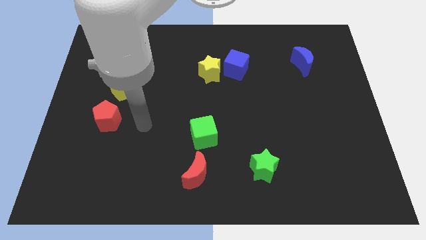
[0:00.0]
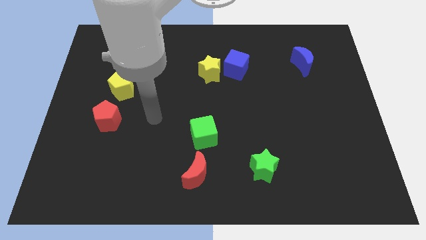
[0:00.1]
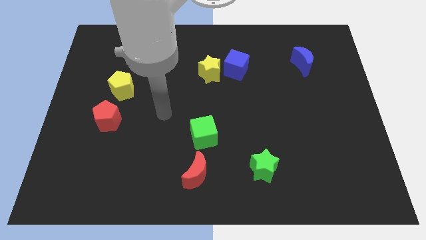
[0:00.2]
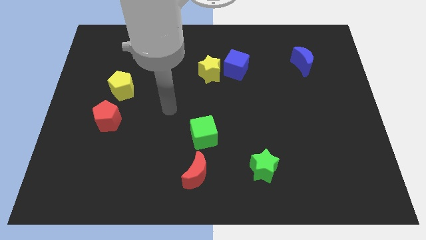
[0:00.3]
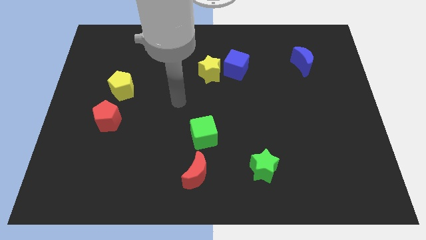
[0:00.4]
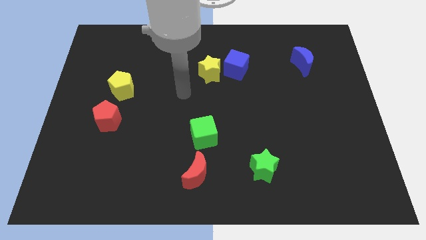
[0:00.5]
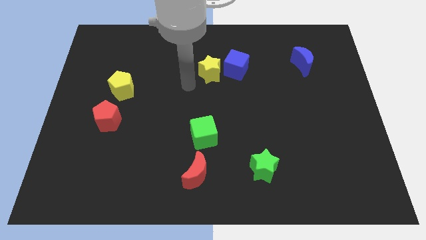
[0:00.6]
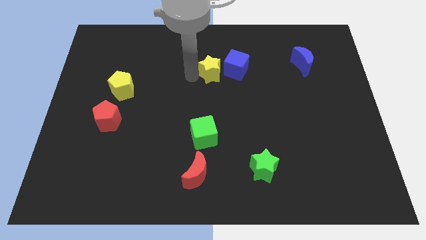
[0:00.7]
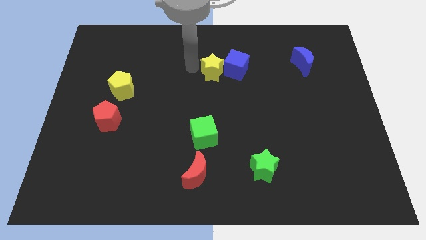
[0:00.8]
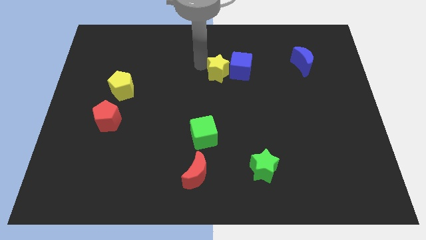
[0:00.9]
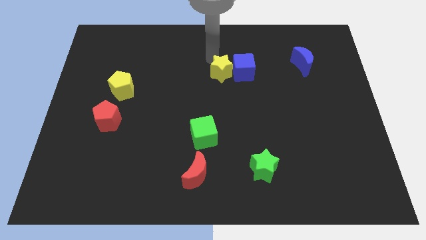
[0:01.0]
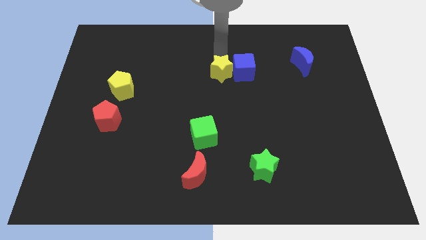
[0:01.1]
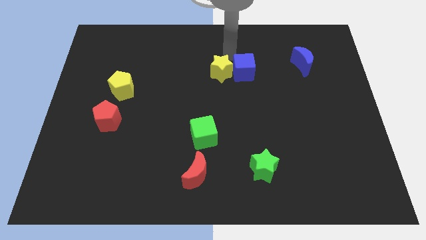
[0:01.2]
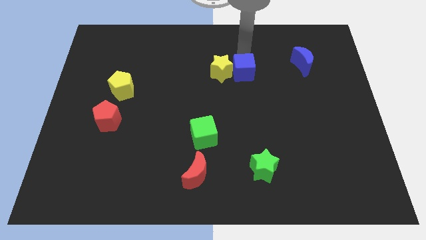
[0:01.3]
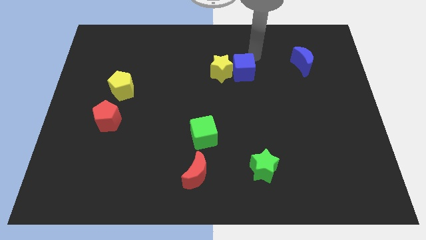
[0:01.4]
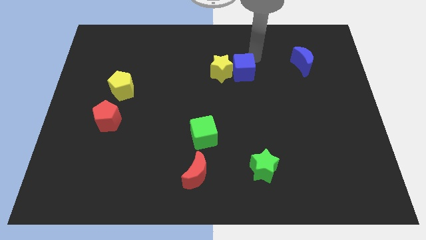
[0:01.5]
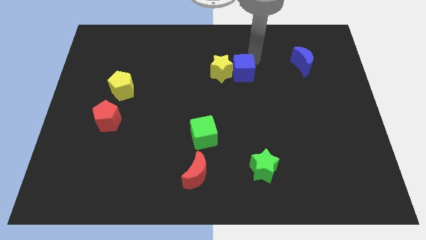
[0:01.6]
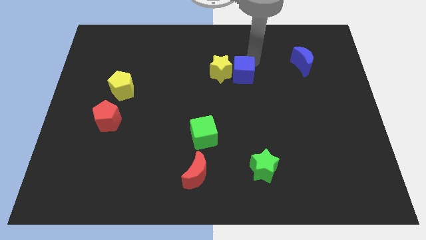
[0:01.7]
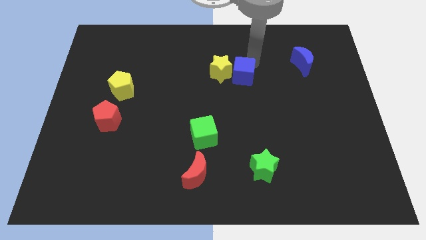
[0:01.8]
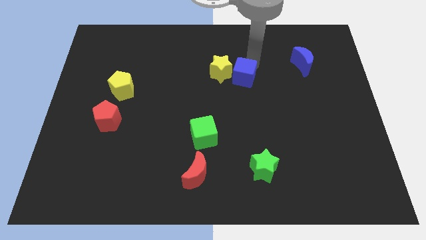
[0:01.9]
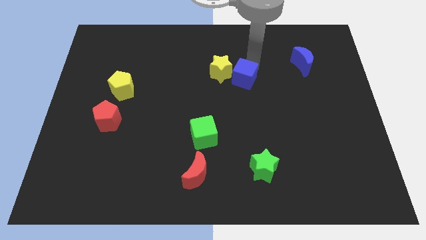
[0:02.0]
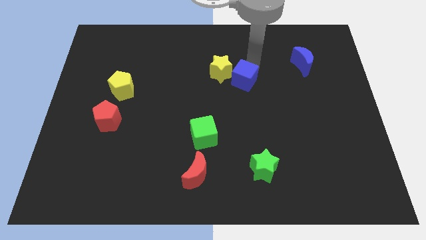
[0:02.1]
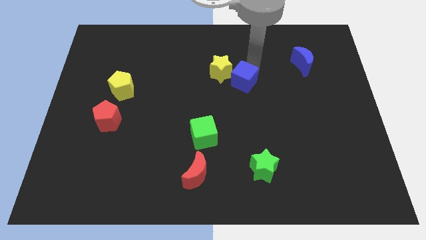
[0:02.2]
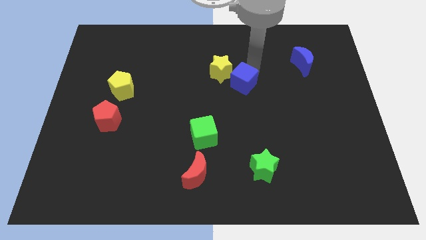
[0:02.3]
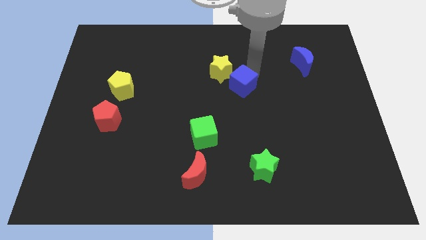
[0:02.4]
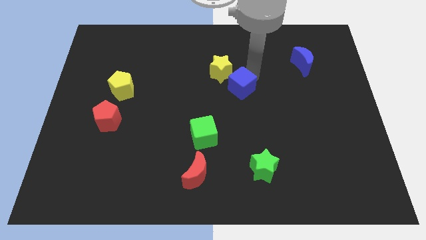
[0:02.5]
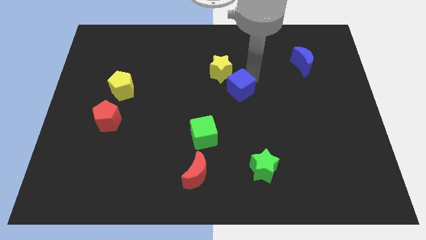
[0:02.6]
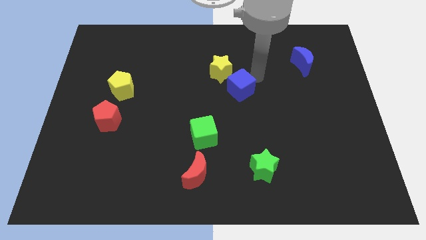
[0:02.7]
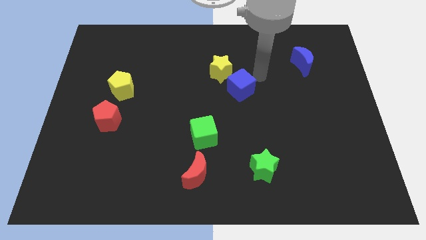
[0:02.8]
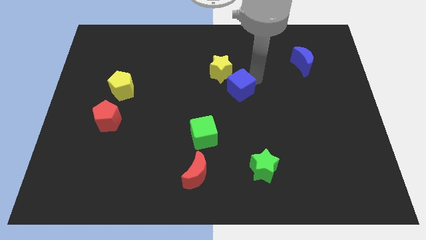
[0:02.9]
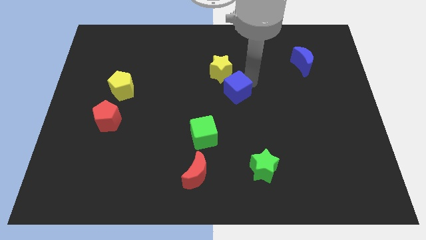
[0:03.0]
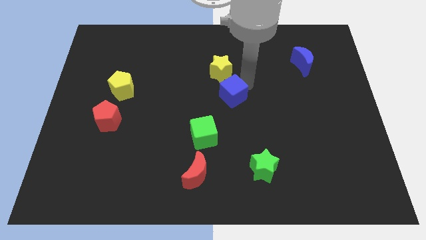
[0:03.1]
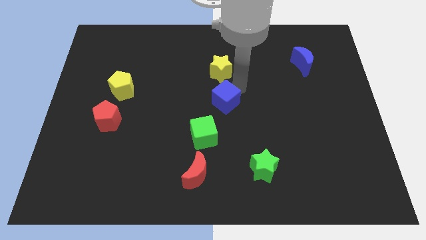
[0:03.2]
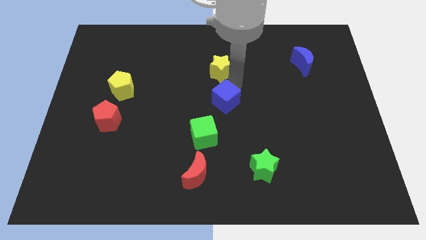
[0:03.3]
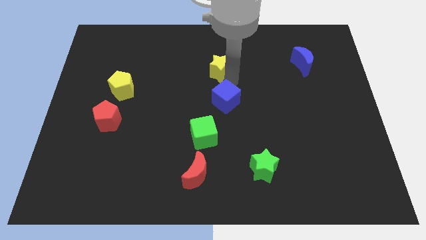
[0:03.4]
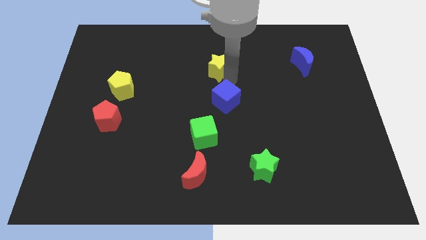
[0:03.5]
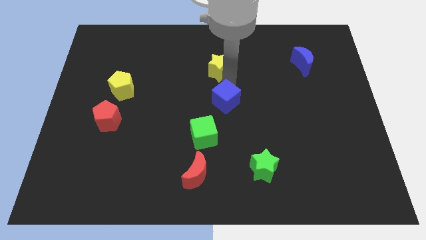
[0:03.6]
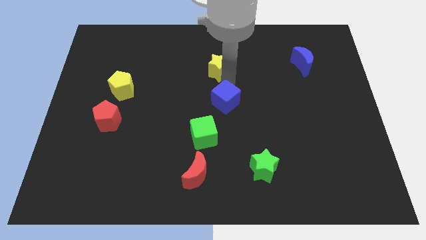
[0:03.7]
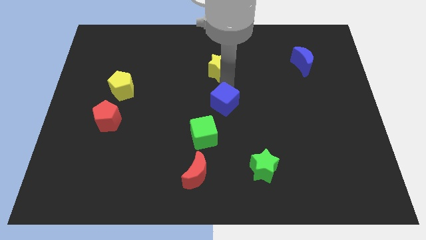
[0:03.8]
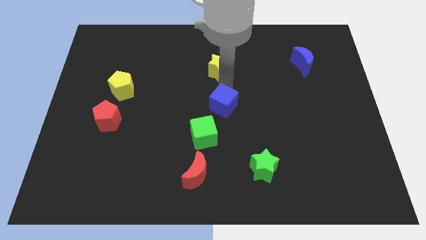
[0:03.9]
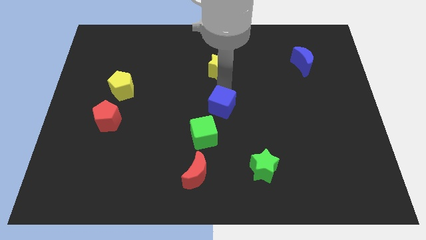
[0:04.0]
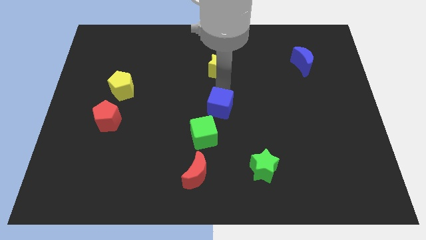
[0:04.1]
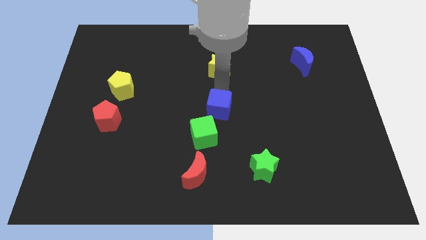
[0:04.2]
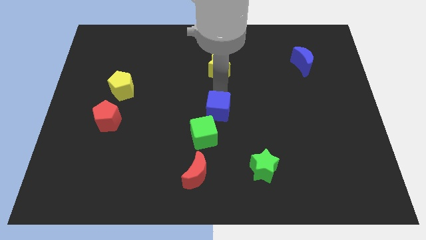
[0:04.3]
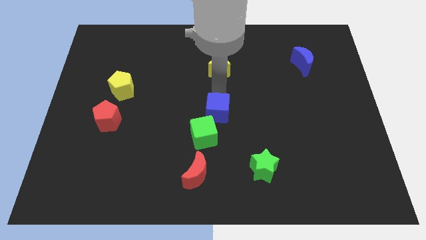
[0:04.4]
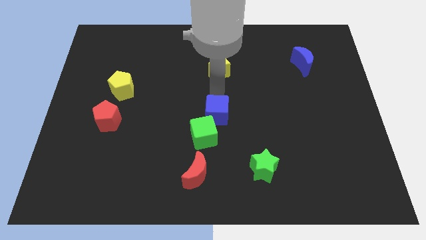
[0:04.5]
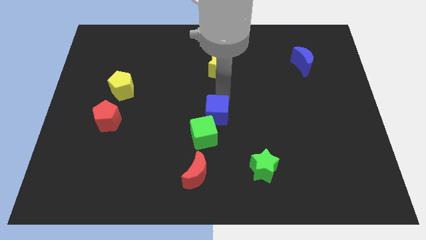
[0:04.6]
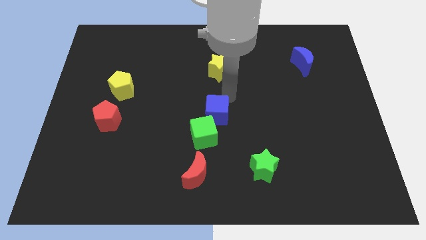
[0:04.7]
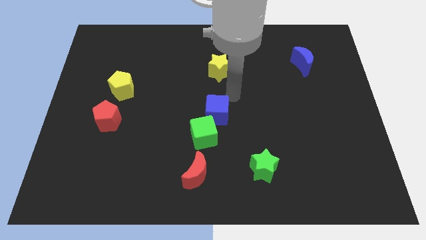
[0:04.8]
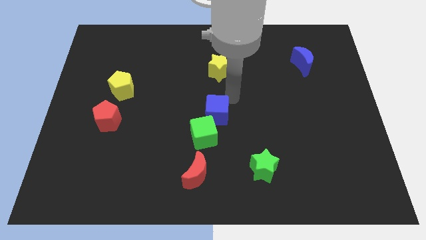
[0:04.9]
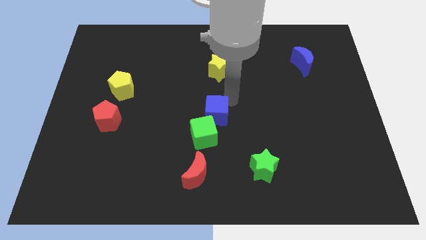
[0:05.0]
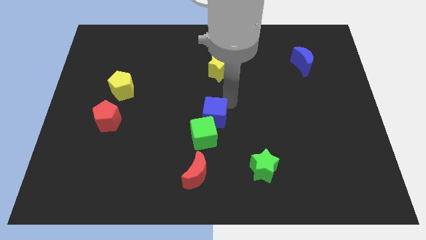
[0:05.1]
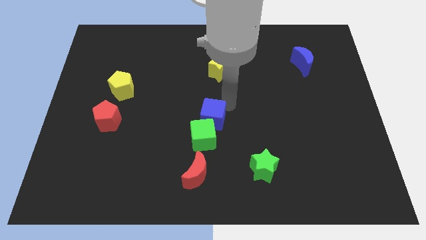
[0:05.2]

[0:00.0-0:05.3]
put the blue cube to the top side of the red moon

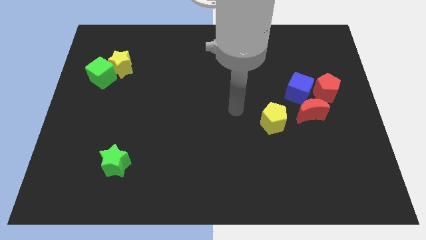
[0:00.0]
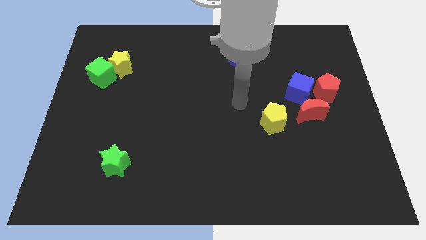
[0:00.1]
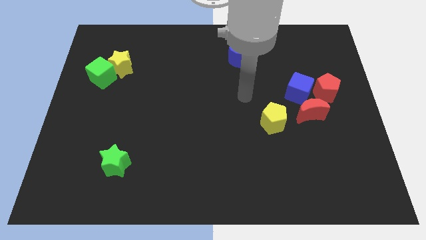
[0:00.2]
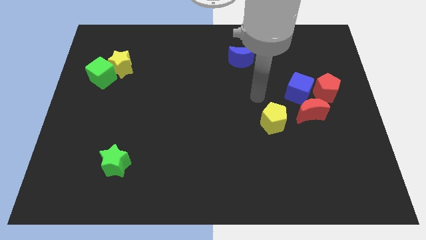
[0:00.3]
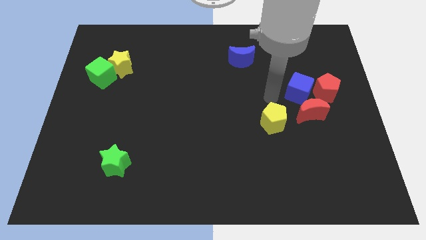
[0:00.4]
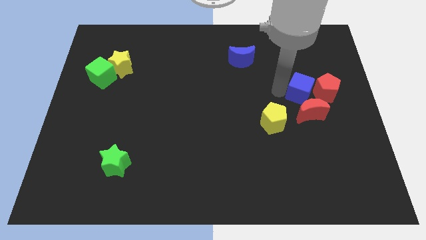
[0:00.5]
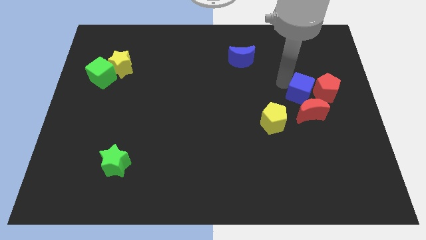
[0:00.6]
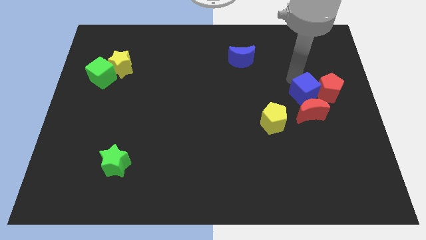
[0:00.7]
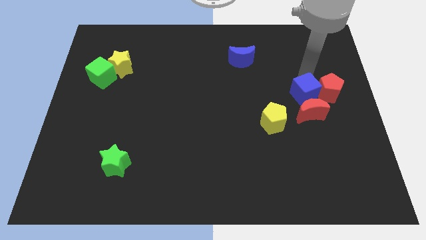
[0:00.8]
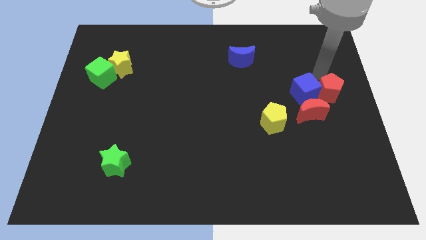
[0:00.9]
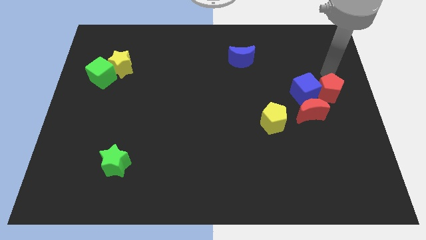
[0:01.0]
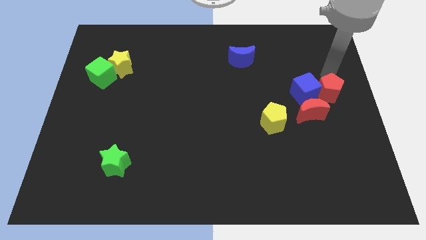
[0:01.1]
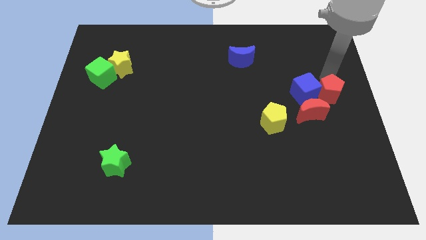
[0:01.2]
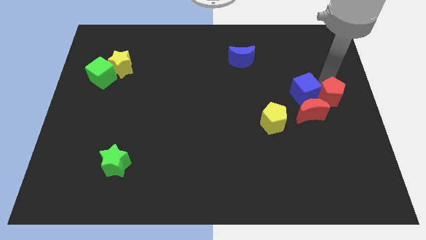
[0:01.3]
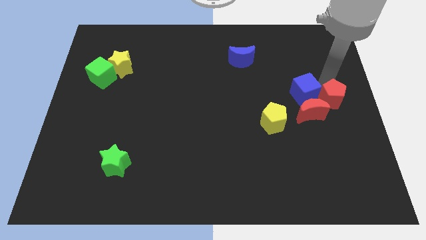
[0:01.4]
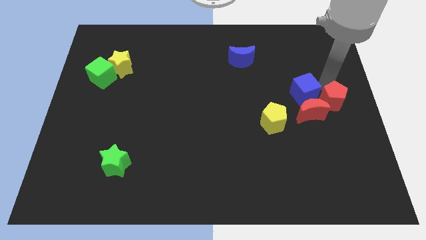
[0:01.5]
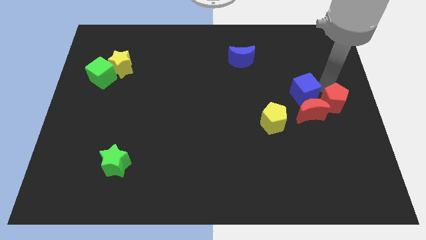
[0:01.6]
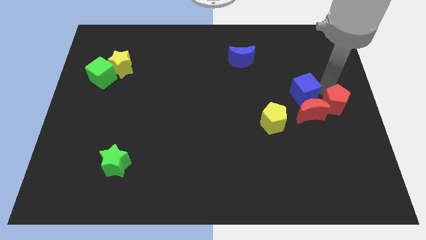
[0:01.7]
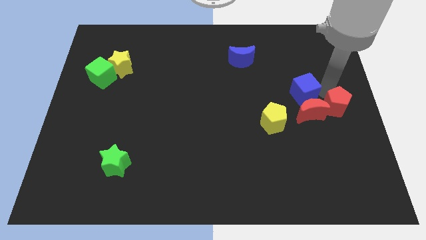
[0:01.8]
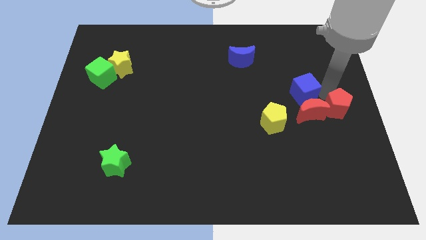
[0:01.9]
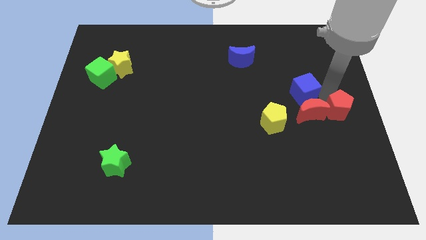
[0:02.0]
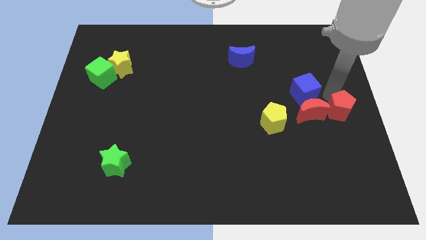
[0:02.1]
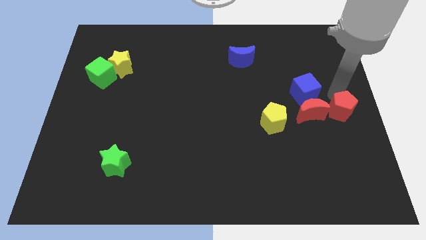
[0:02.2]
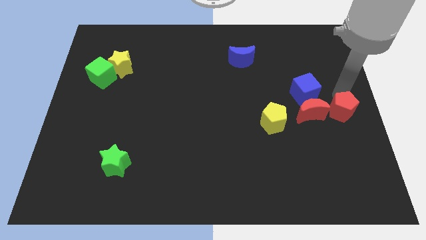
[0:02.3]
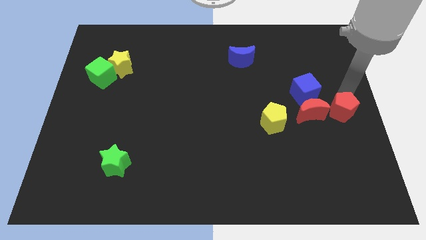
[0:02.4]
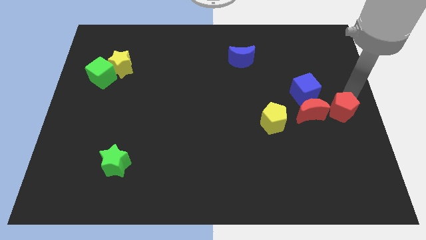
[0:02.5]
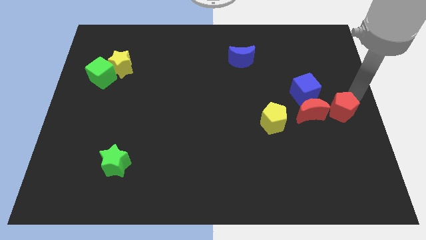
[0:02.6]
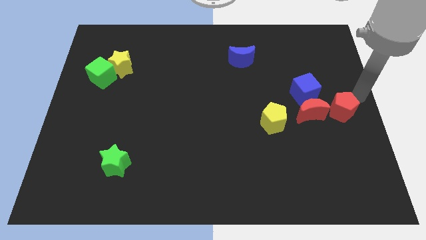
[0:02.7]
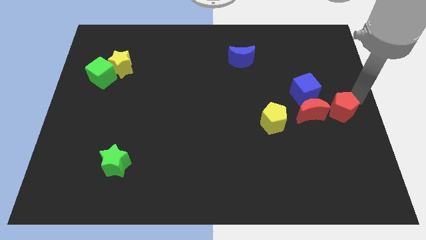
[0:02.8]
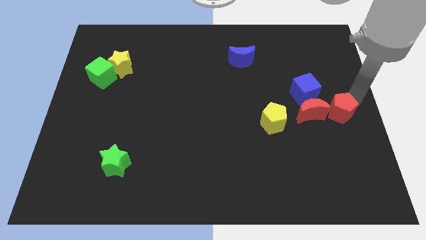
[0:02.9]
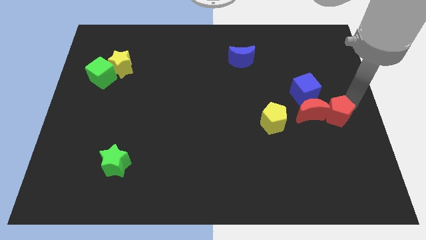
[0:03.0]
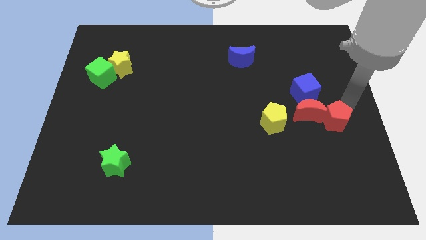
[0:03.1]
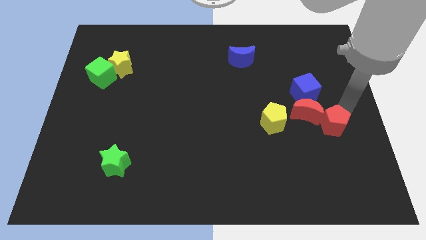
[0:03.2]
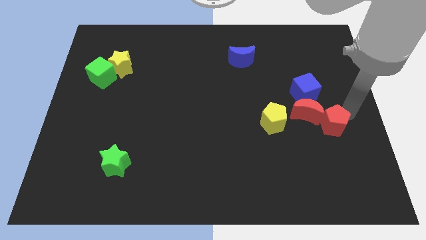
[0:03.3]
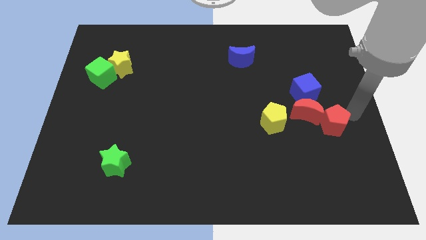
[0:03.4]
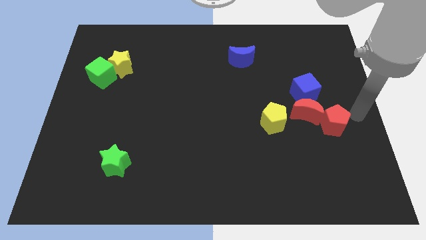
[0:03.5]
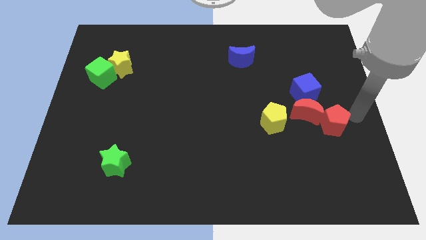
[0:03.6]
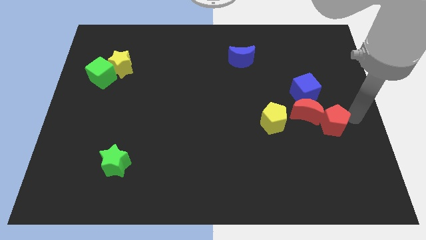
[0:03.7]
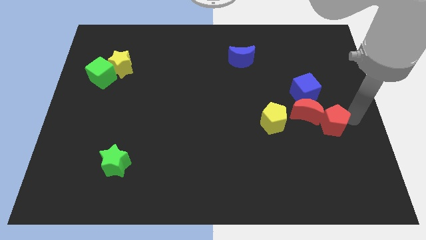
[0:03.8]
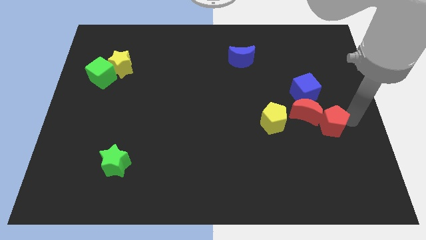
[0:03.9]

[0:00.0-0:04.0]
push the red pentagon to the bottom side of the blue cube
